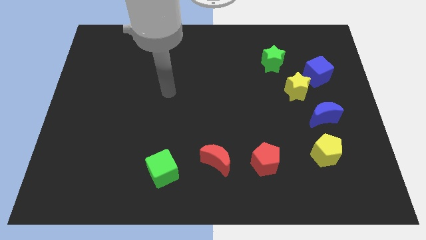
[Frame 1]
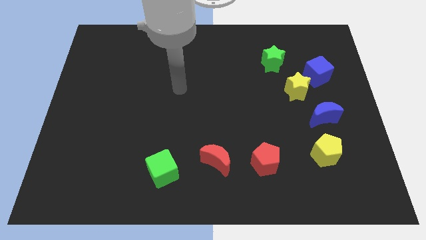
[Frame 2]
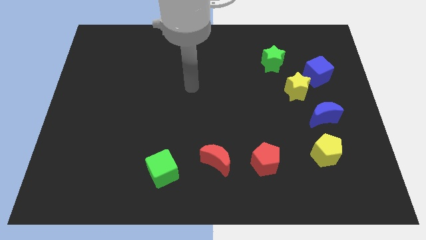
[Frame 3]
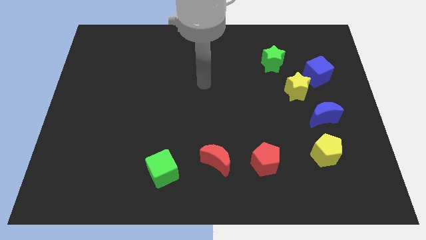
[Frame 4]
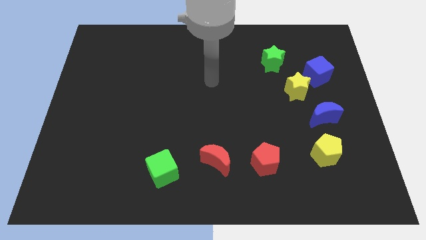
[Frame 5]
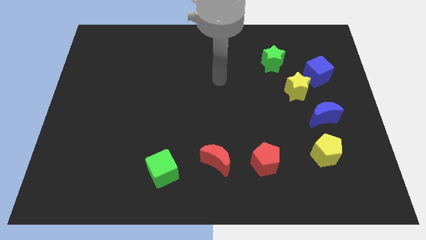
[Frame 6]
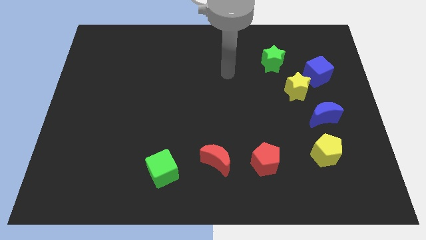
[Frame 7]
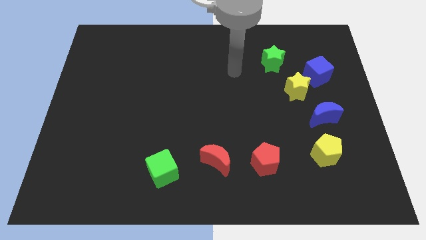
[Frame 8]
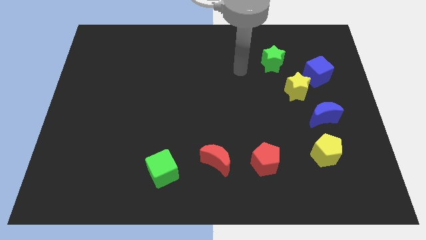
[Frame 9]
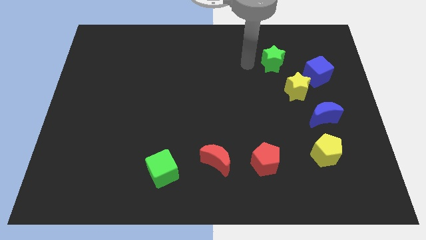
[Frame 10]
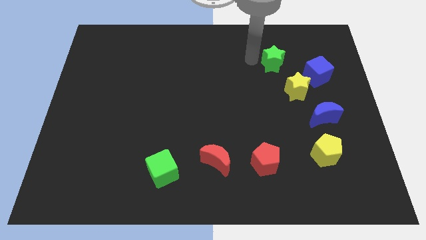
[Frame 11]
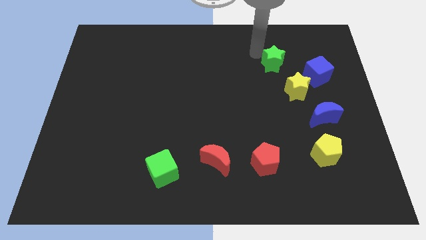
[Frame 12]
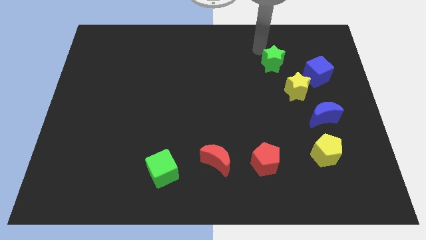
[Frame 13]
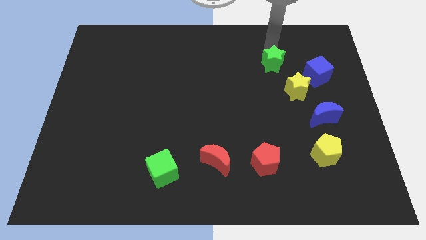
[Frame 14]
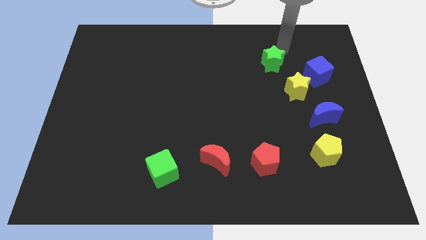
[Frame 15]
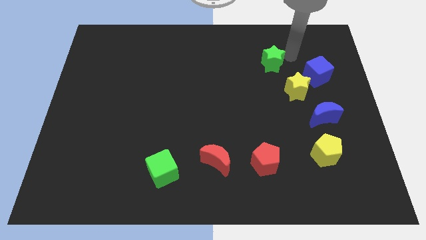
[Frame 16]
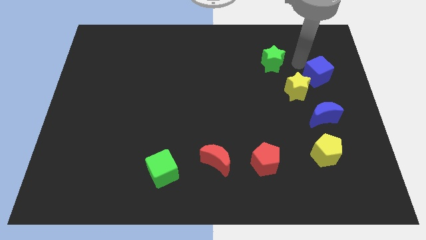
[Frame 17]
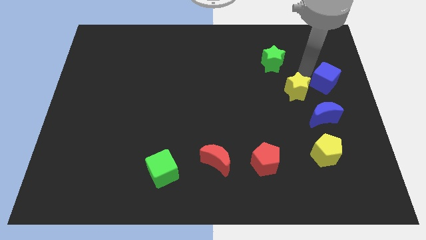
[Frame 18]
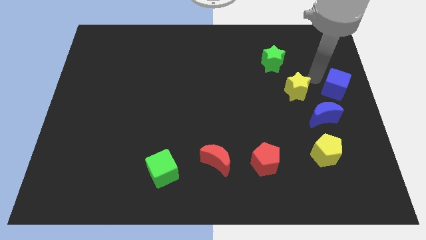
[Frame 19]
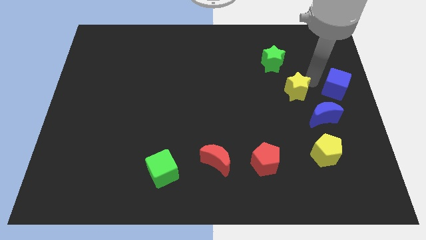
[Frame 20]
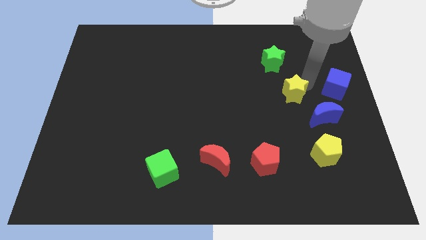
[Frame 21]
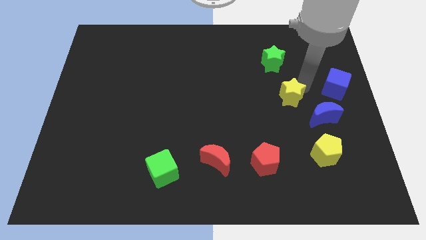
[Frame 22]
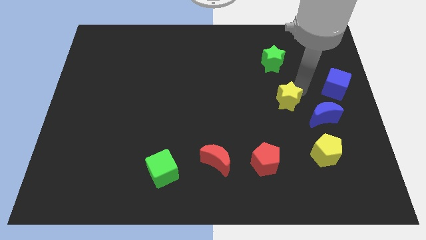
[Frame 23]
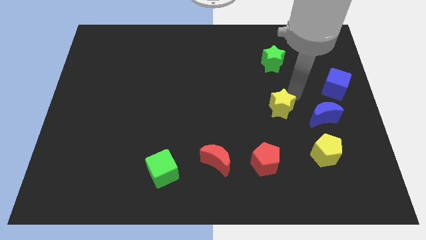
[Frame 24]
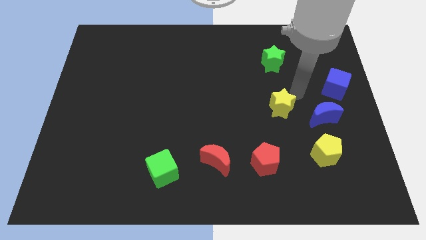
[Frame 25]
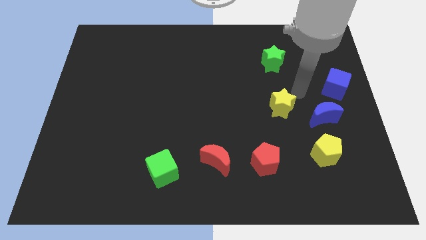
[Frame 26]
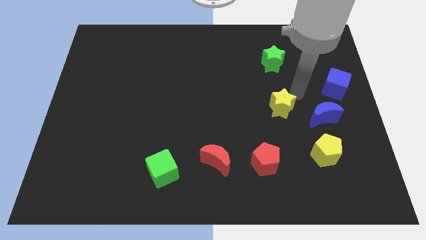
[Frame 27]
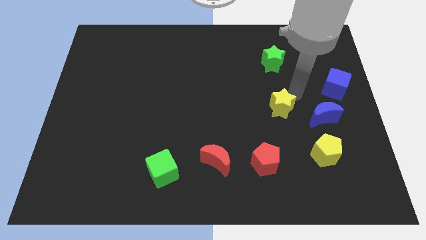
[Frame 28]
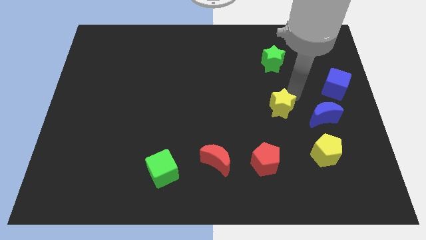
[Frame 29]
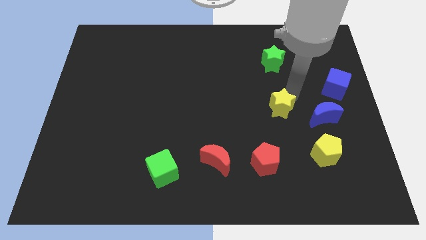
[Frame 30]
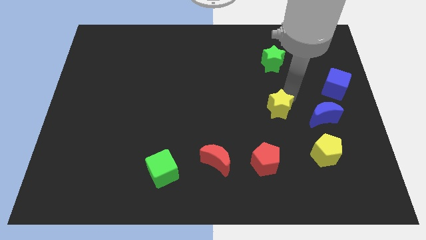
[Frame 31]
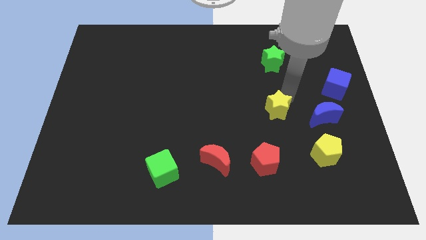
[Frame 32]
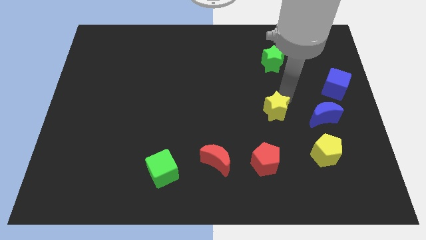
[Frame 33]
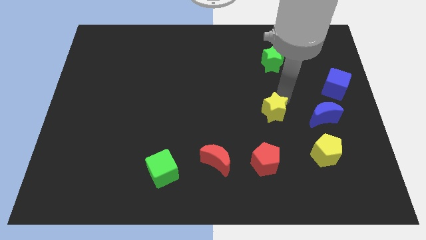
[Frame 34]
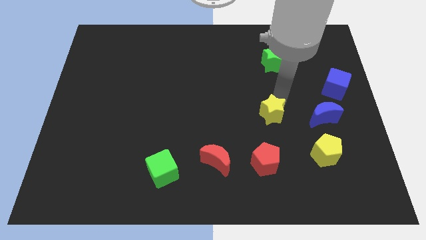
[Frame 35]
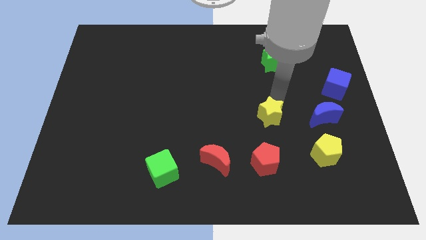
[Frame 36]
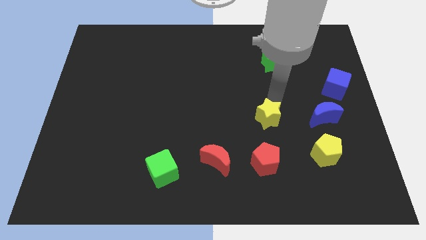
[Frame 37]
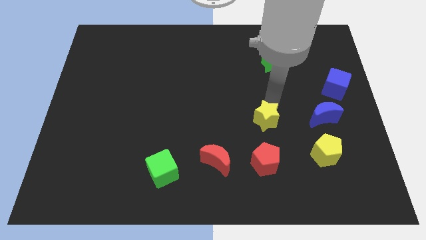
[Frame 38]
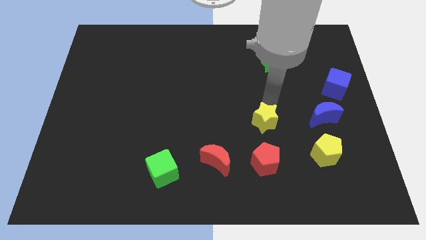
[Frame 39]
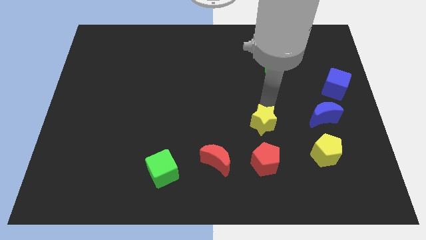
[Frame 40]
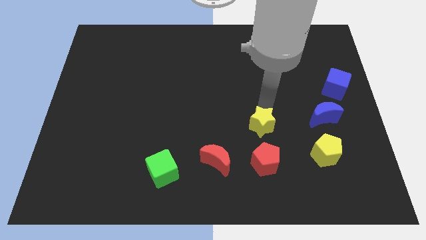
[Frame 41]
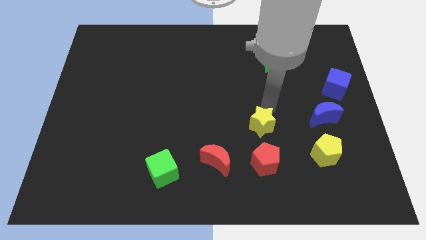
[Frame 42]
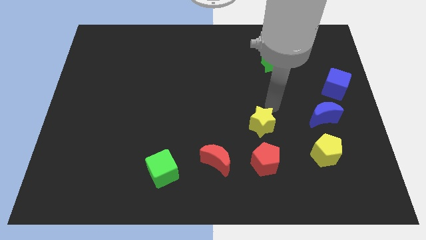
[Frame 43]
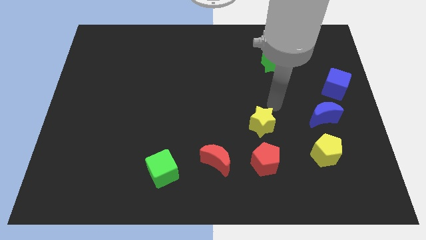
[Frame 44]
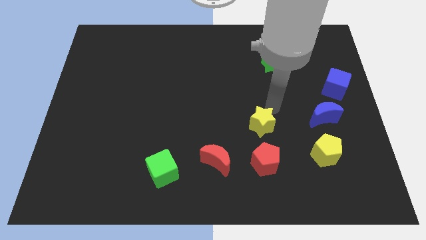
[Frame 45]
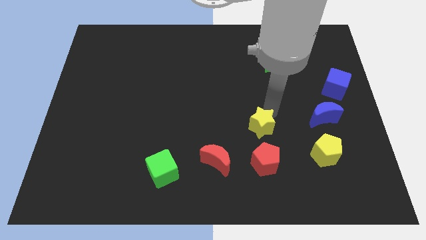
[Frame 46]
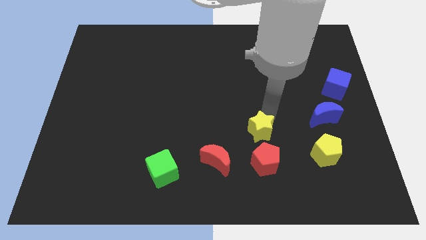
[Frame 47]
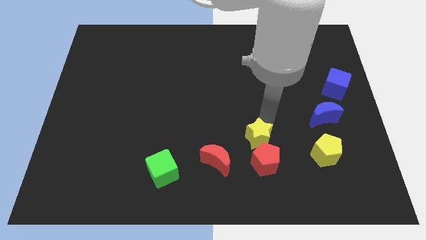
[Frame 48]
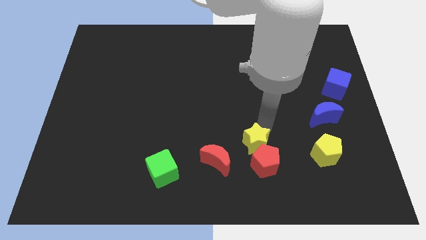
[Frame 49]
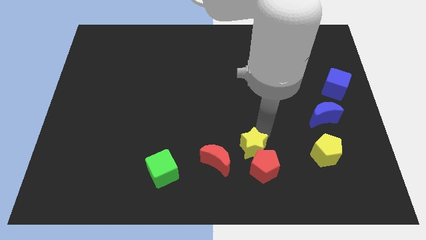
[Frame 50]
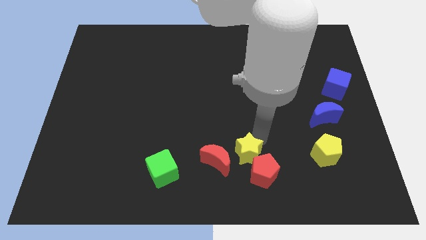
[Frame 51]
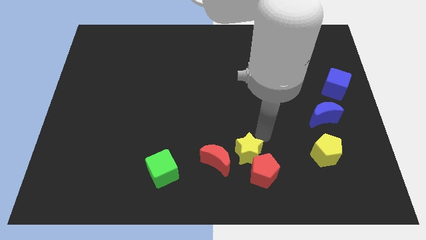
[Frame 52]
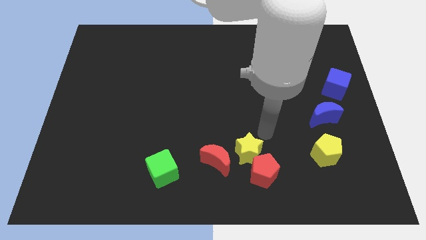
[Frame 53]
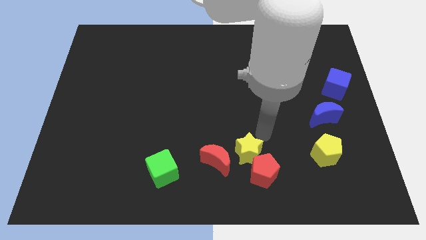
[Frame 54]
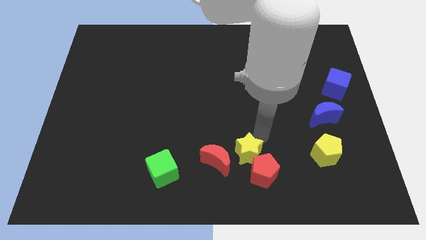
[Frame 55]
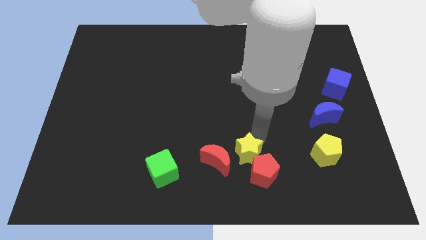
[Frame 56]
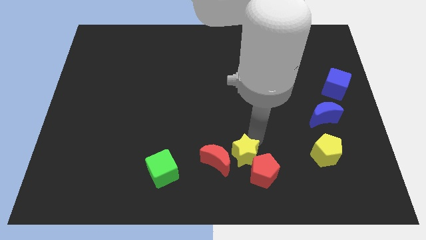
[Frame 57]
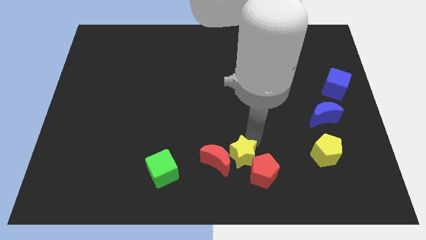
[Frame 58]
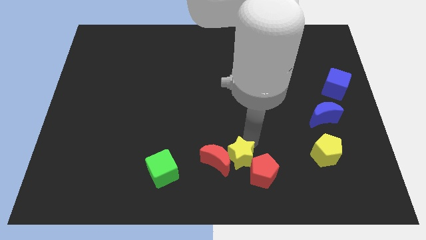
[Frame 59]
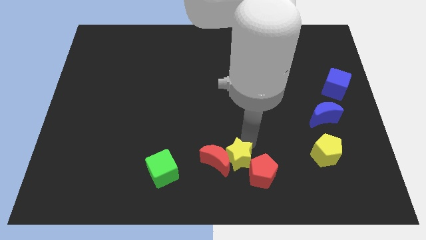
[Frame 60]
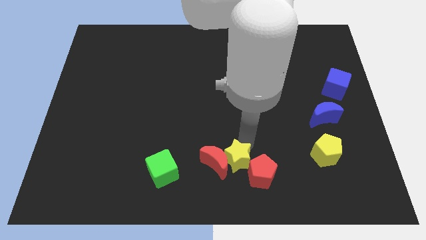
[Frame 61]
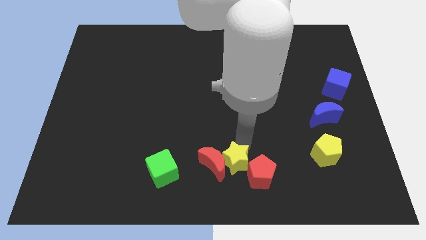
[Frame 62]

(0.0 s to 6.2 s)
move the yellow star to the right side of the green cube

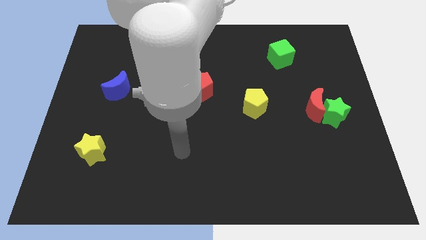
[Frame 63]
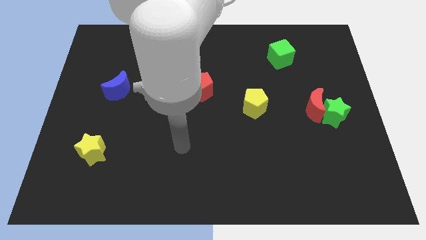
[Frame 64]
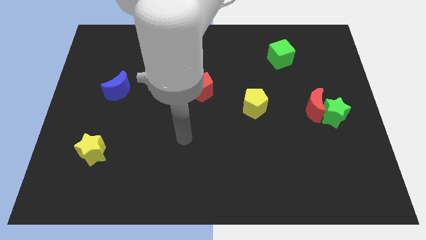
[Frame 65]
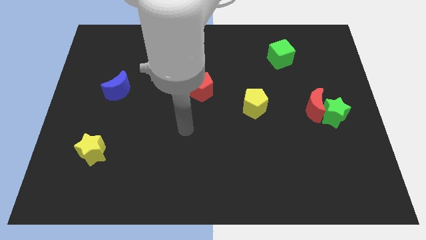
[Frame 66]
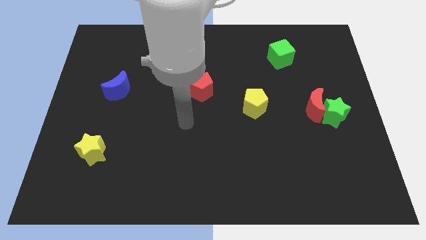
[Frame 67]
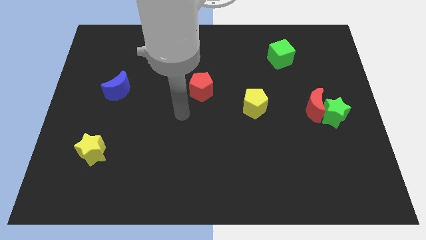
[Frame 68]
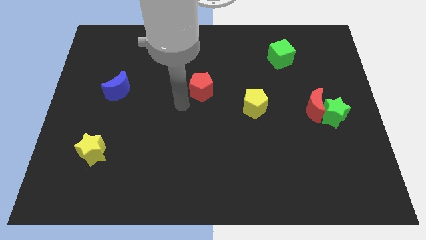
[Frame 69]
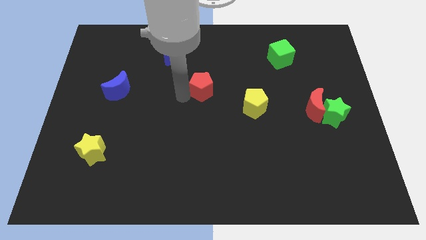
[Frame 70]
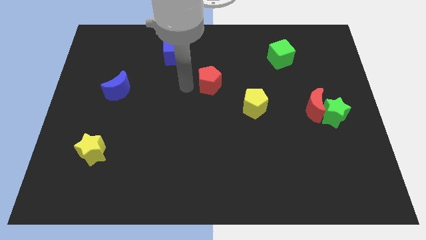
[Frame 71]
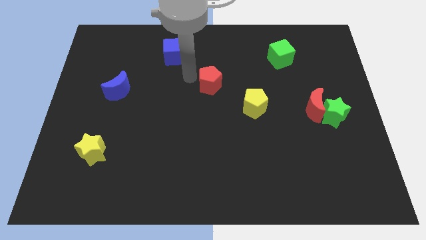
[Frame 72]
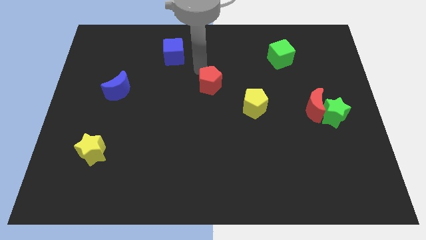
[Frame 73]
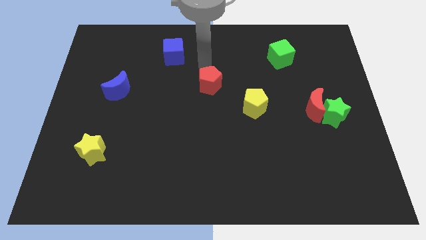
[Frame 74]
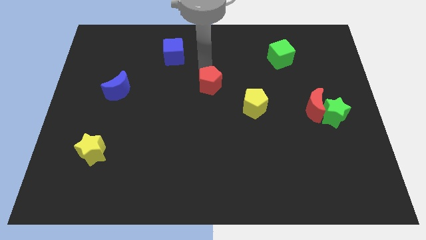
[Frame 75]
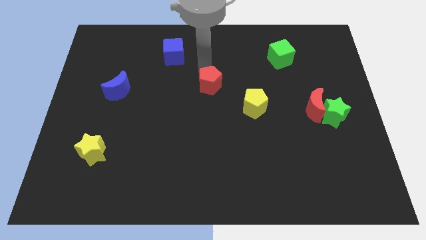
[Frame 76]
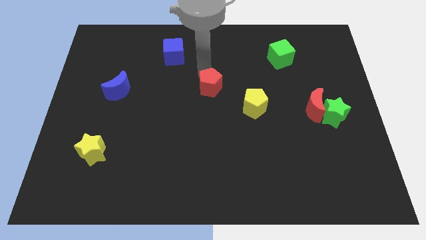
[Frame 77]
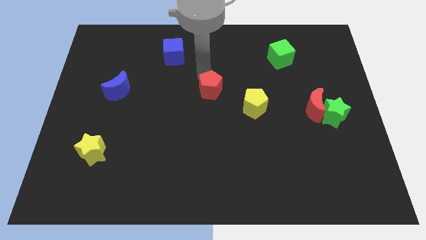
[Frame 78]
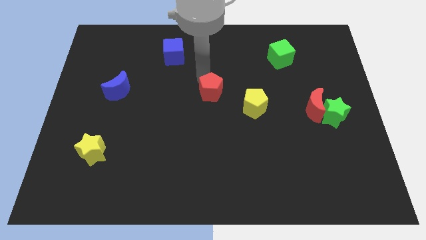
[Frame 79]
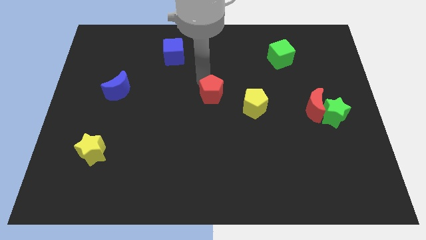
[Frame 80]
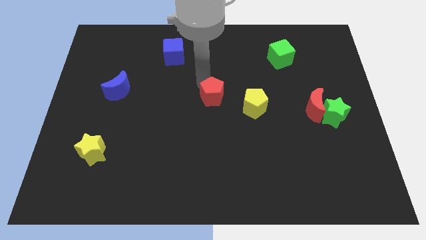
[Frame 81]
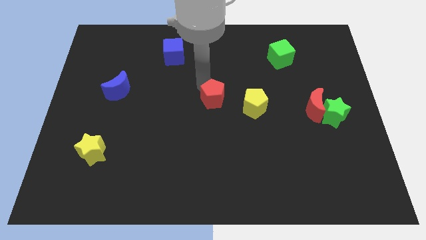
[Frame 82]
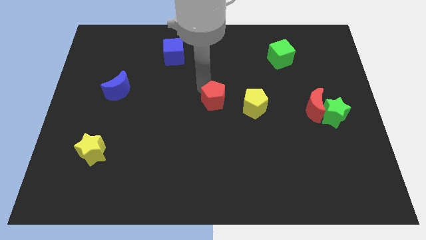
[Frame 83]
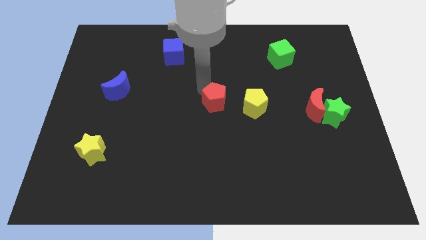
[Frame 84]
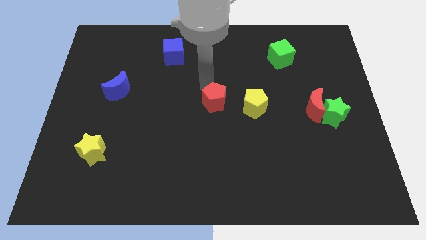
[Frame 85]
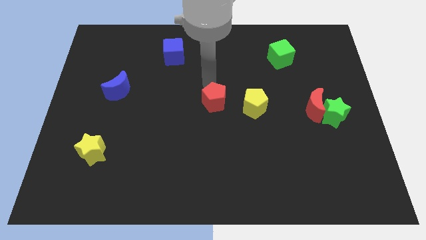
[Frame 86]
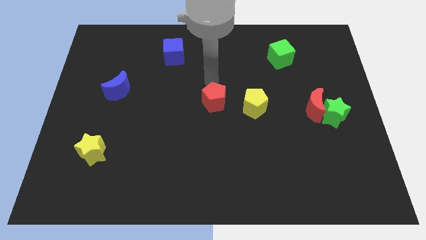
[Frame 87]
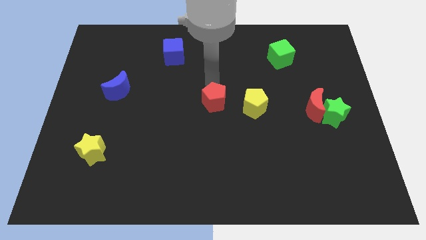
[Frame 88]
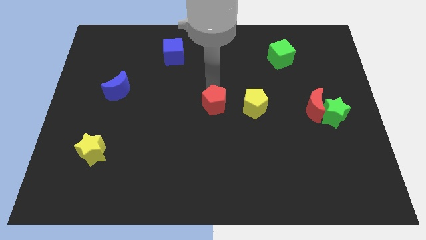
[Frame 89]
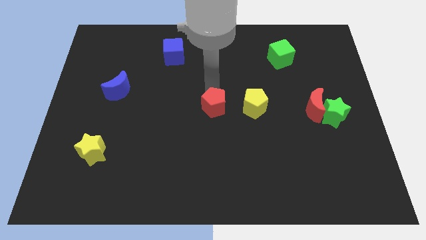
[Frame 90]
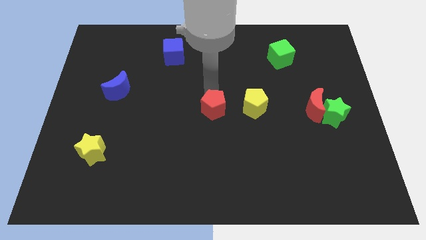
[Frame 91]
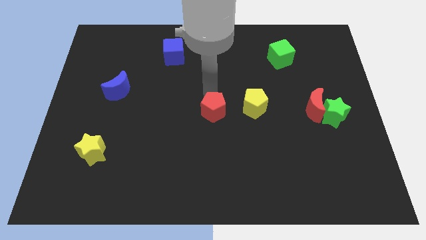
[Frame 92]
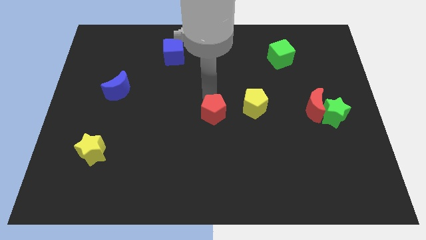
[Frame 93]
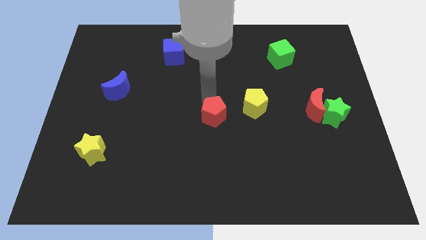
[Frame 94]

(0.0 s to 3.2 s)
push the red pentagon to the bottom left of the yellow pentagon
